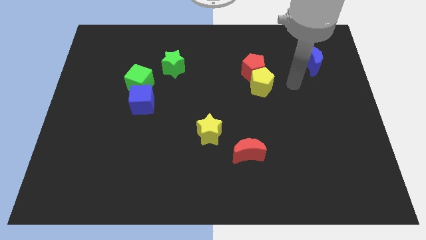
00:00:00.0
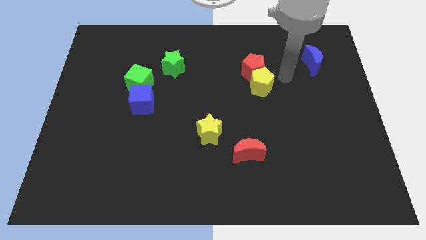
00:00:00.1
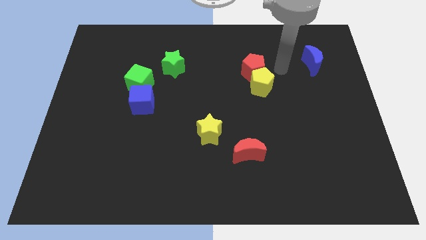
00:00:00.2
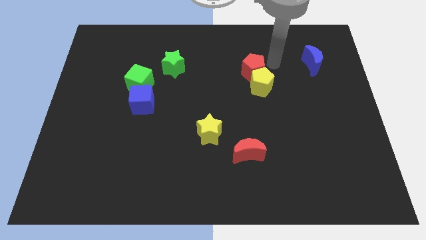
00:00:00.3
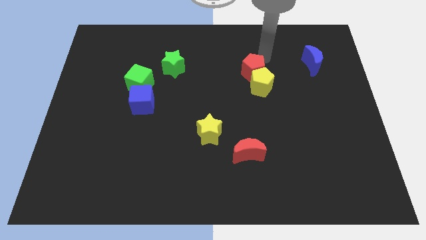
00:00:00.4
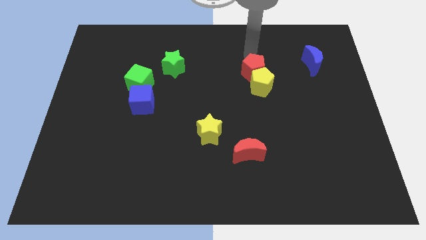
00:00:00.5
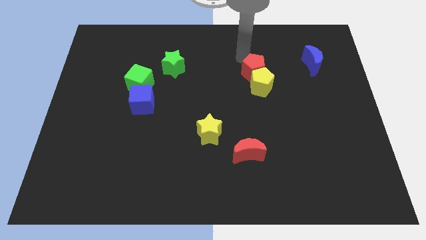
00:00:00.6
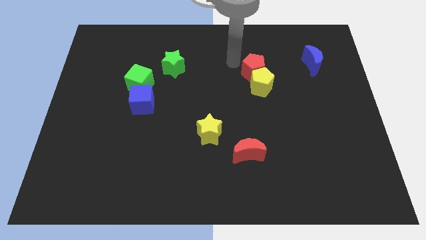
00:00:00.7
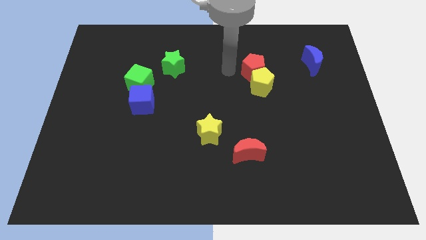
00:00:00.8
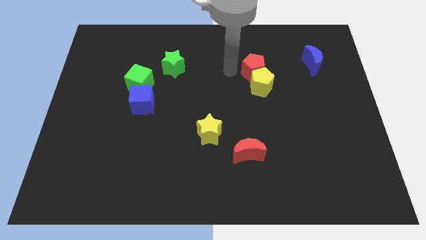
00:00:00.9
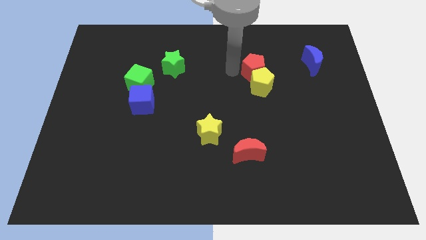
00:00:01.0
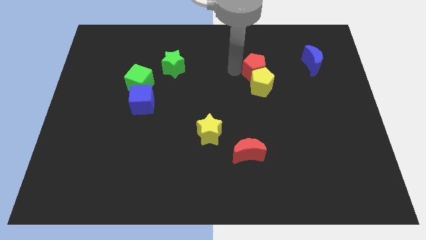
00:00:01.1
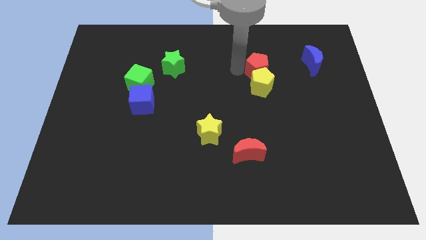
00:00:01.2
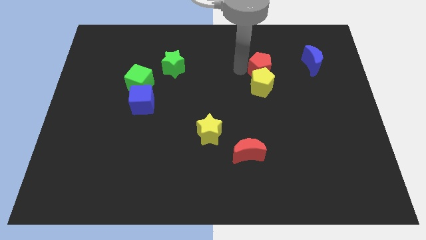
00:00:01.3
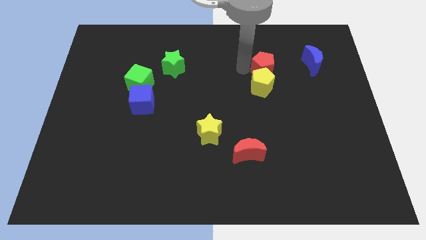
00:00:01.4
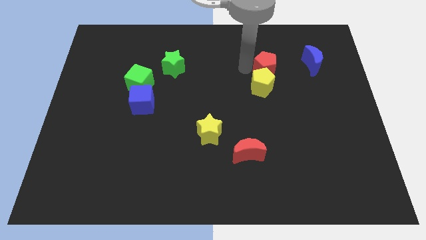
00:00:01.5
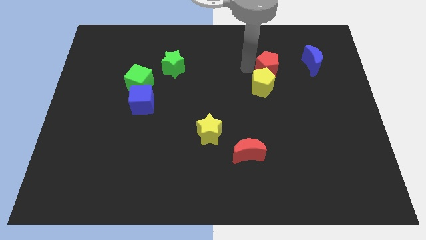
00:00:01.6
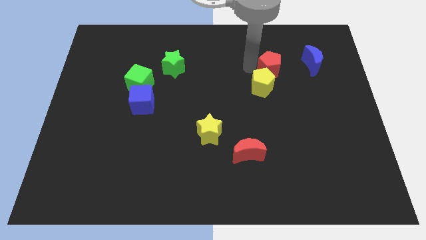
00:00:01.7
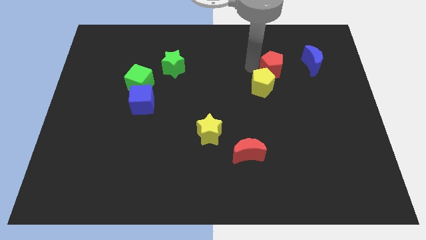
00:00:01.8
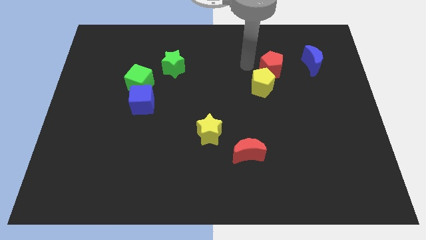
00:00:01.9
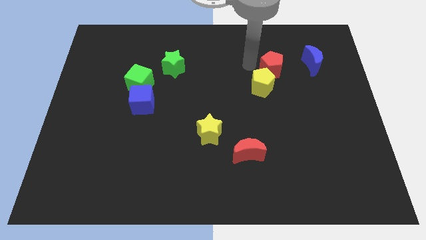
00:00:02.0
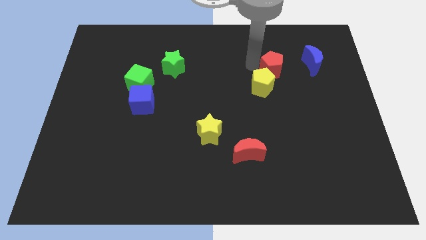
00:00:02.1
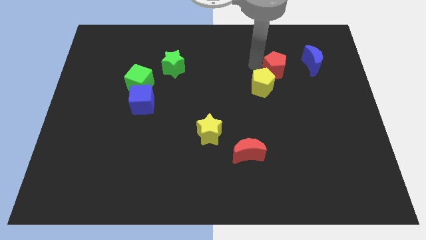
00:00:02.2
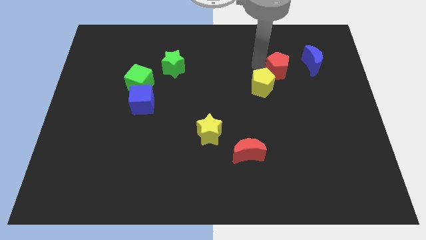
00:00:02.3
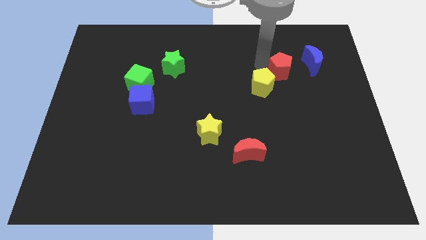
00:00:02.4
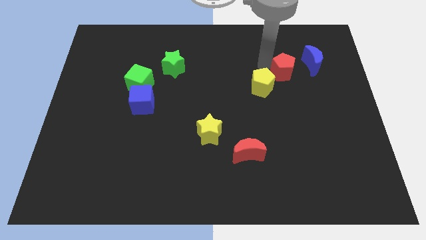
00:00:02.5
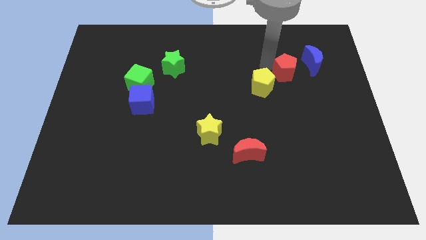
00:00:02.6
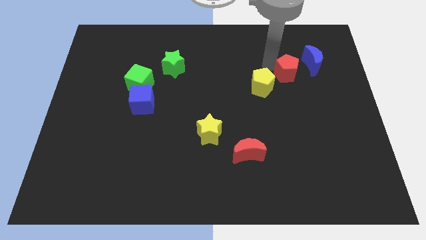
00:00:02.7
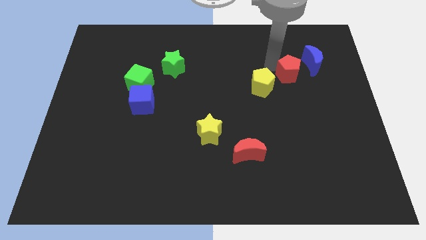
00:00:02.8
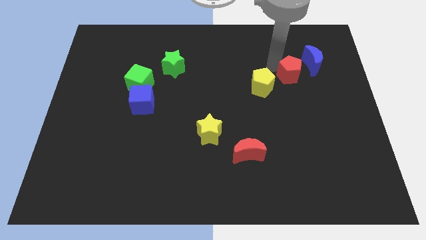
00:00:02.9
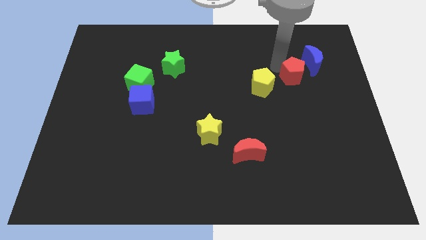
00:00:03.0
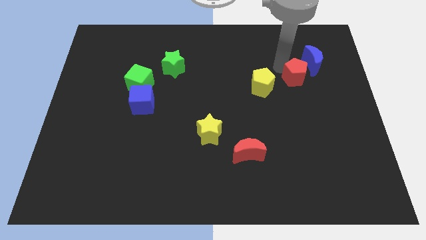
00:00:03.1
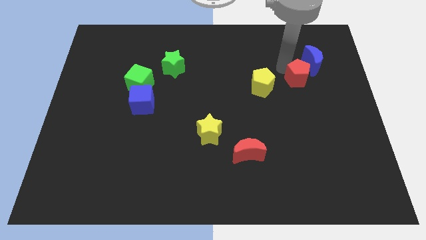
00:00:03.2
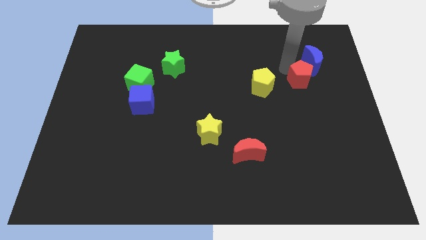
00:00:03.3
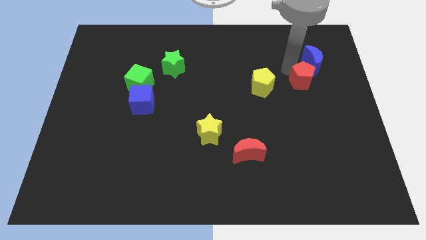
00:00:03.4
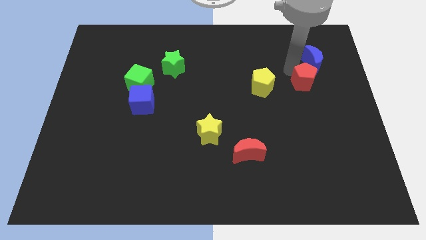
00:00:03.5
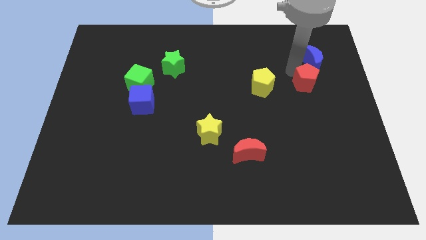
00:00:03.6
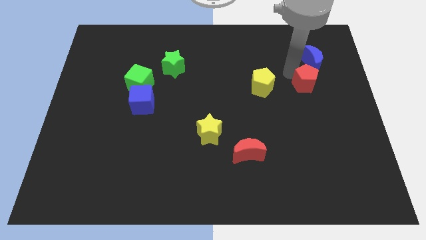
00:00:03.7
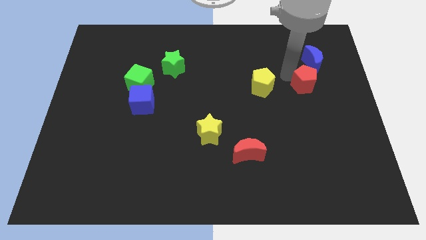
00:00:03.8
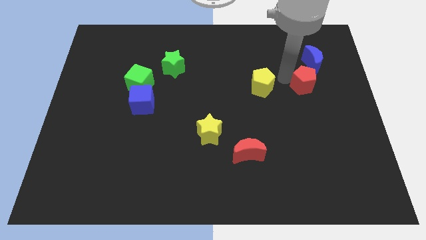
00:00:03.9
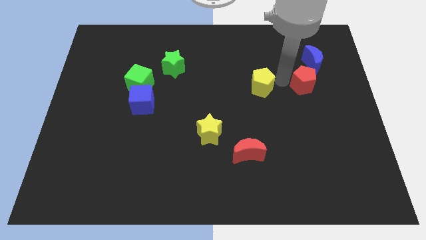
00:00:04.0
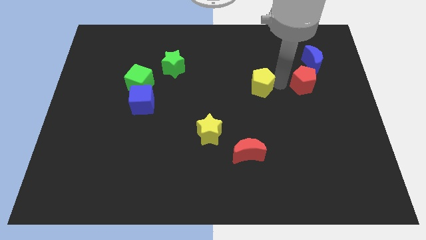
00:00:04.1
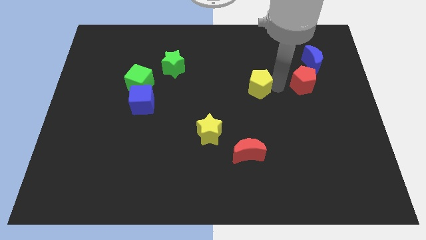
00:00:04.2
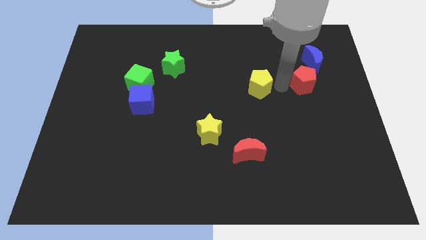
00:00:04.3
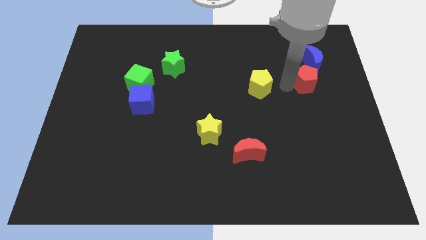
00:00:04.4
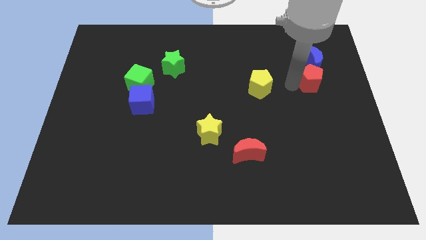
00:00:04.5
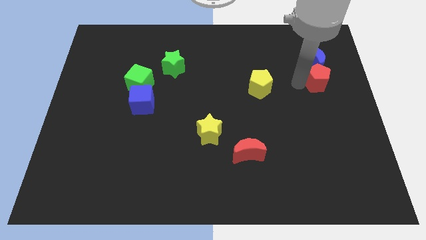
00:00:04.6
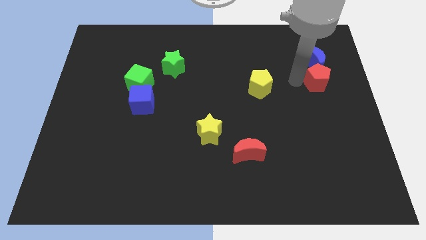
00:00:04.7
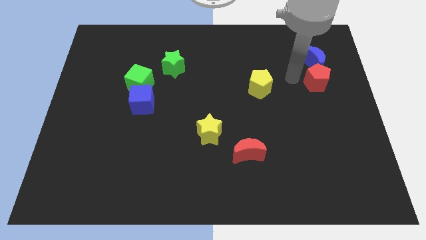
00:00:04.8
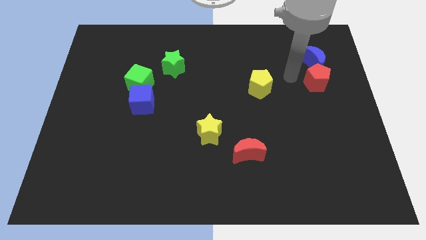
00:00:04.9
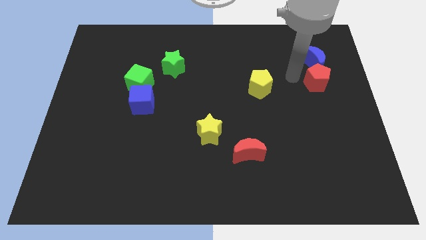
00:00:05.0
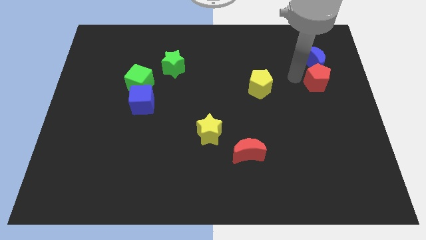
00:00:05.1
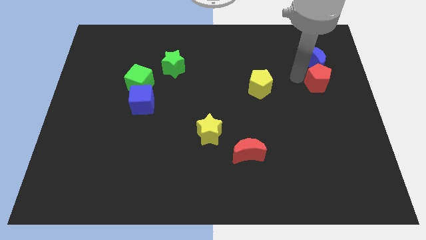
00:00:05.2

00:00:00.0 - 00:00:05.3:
slide the red pentagon to the center right

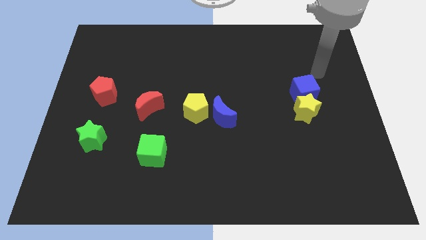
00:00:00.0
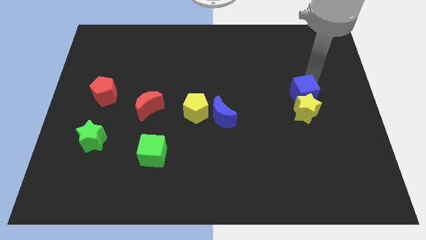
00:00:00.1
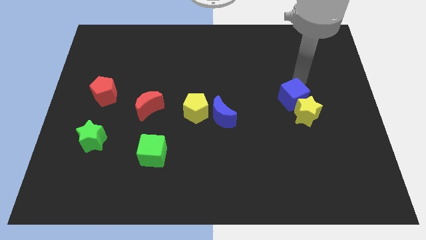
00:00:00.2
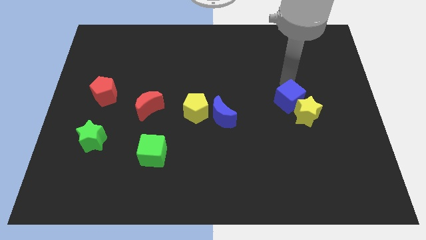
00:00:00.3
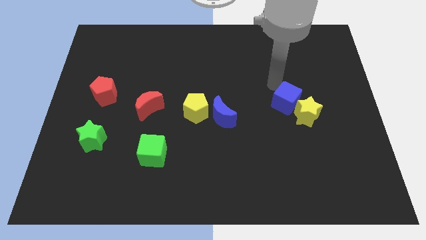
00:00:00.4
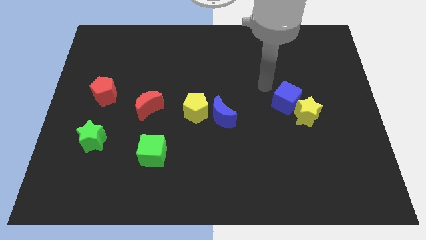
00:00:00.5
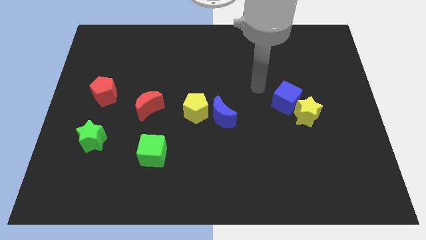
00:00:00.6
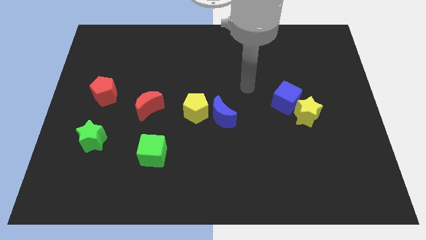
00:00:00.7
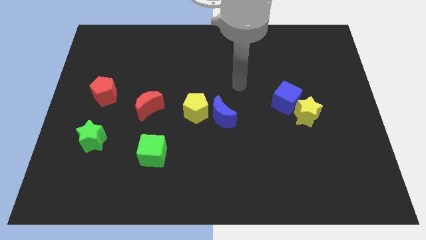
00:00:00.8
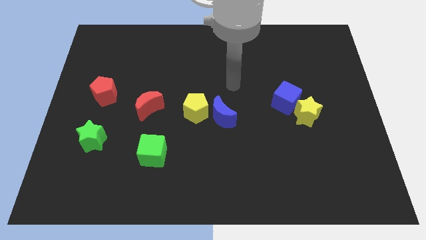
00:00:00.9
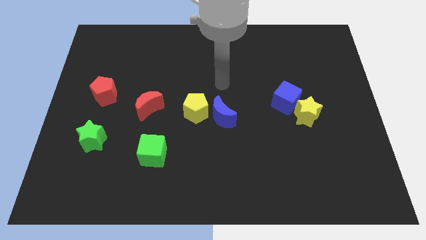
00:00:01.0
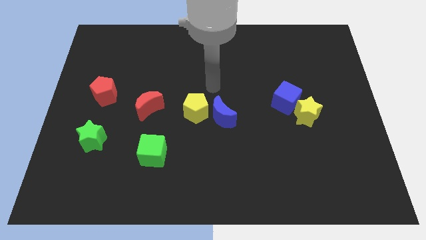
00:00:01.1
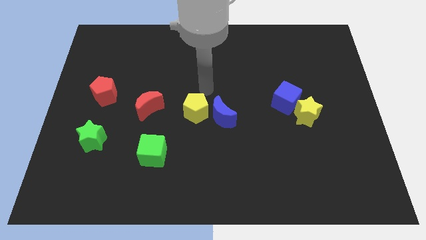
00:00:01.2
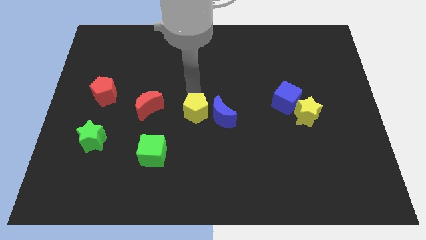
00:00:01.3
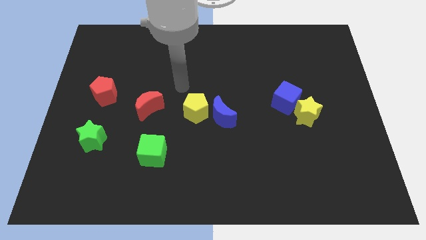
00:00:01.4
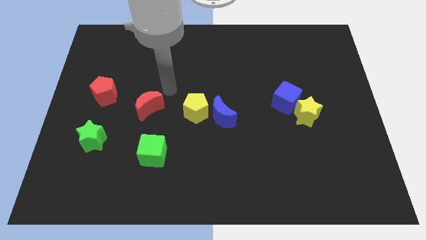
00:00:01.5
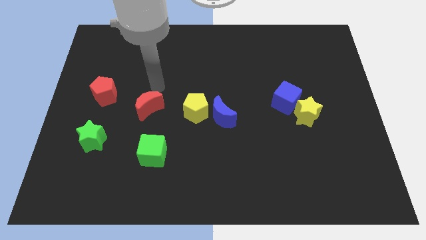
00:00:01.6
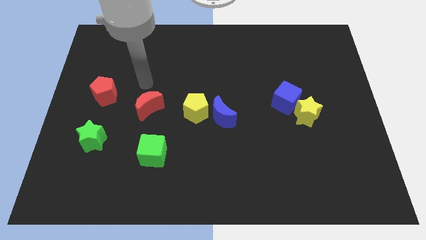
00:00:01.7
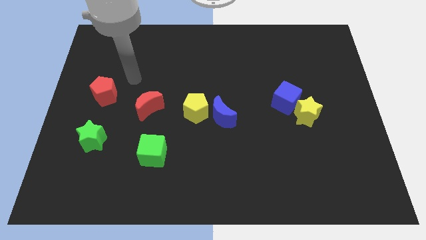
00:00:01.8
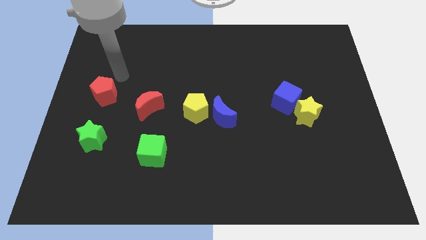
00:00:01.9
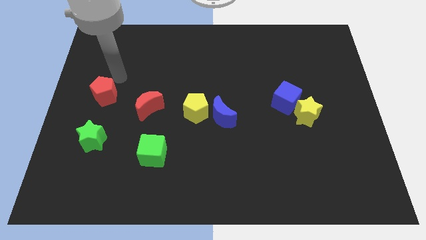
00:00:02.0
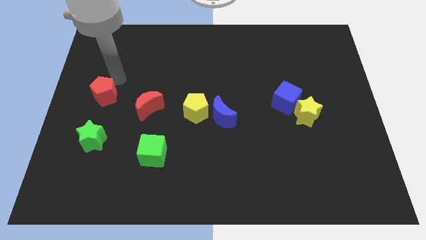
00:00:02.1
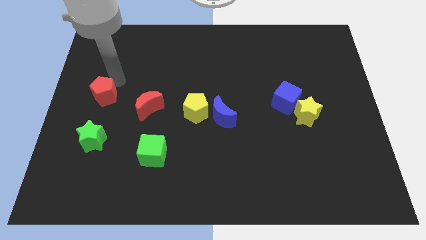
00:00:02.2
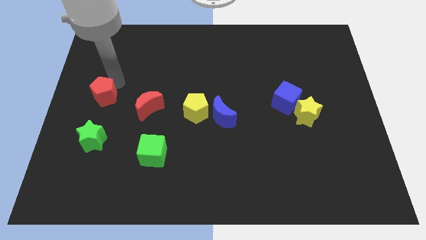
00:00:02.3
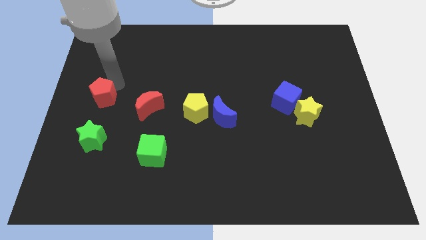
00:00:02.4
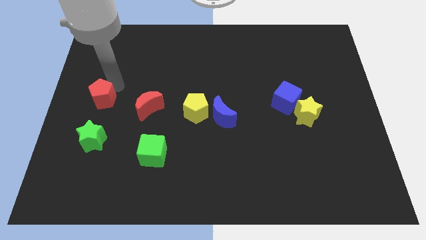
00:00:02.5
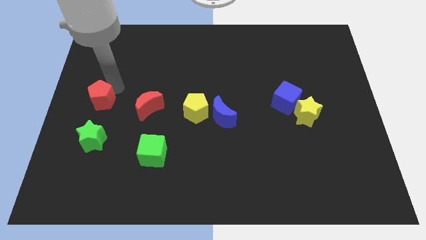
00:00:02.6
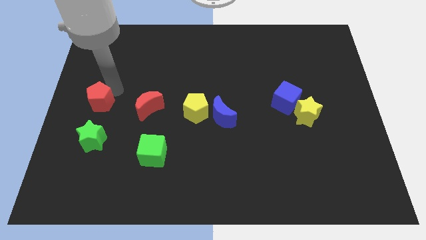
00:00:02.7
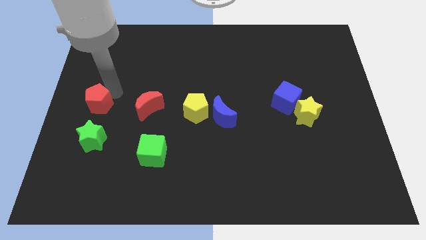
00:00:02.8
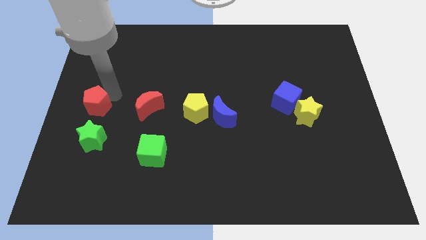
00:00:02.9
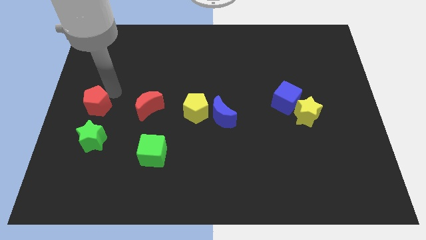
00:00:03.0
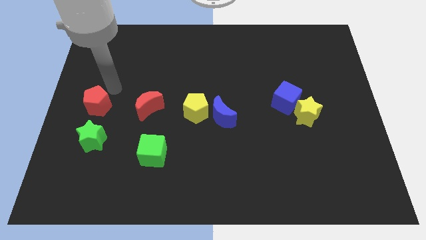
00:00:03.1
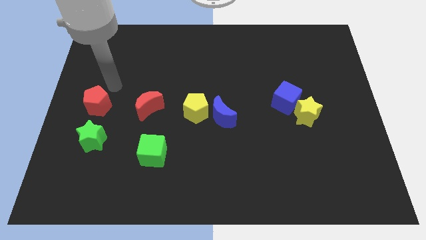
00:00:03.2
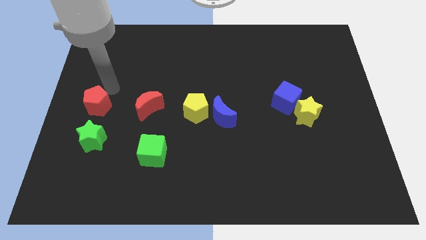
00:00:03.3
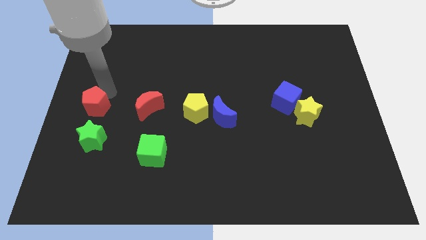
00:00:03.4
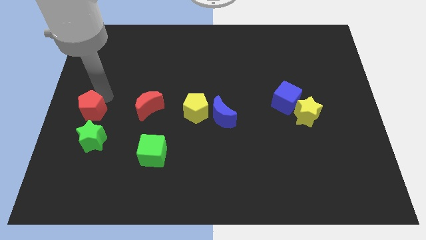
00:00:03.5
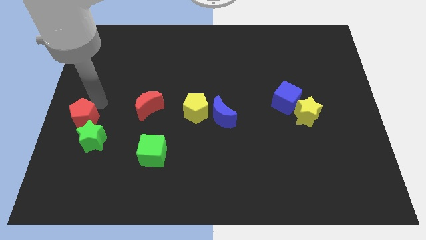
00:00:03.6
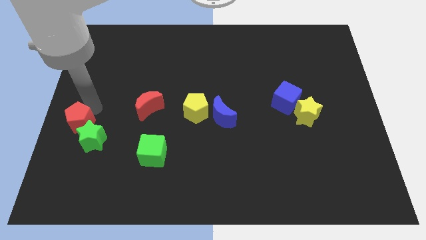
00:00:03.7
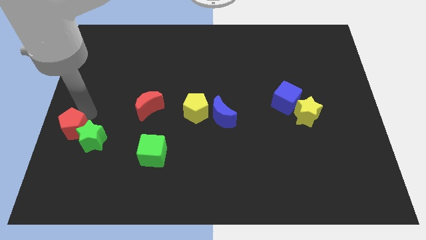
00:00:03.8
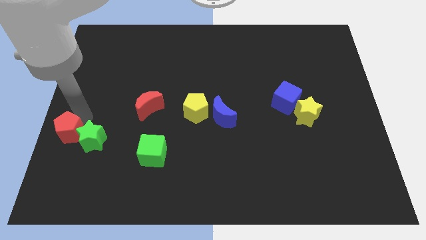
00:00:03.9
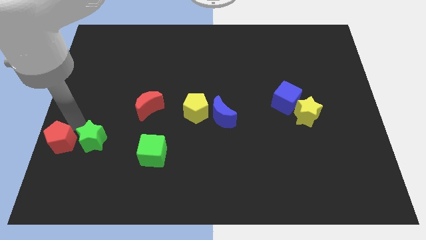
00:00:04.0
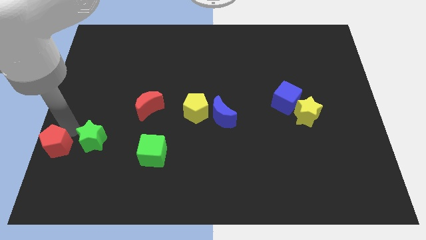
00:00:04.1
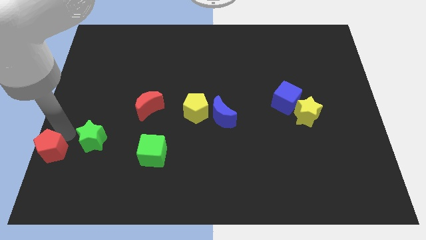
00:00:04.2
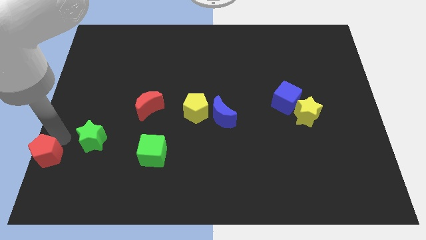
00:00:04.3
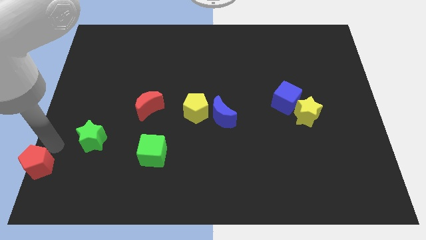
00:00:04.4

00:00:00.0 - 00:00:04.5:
push the red pentagon to the bottom left
